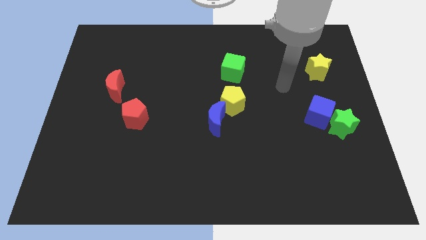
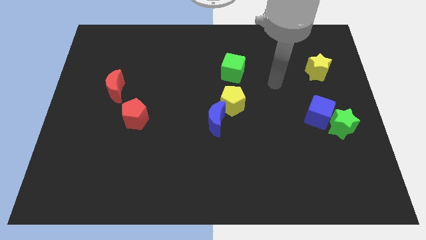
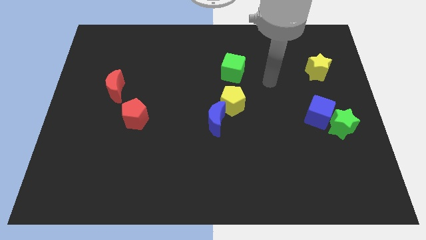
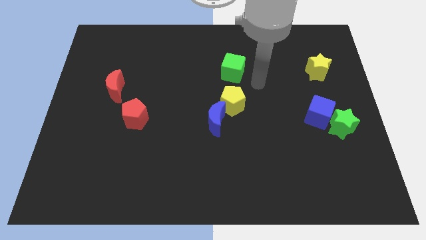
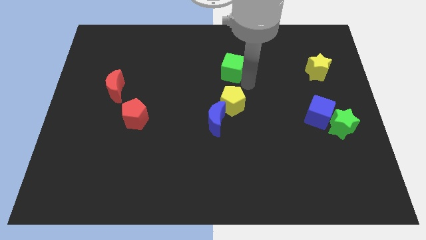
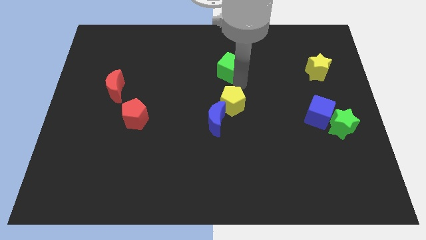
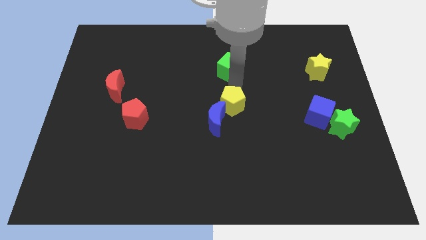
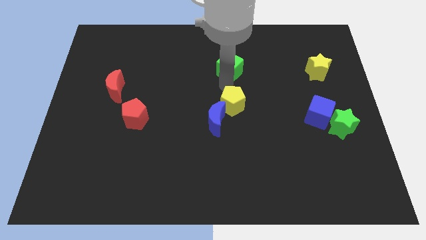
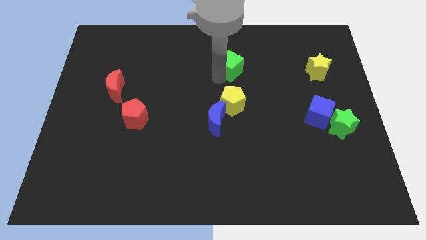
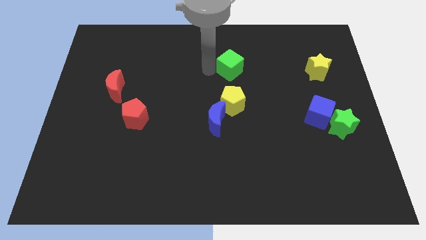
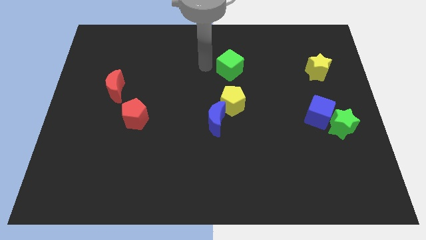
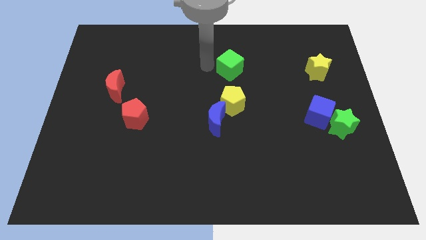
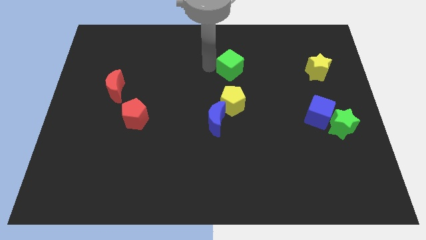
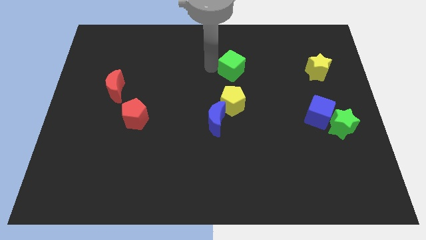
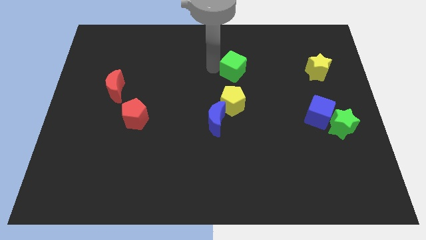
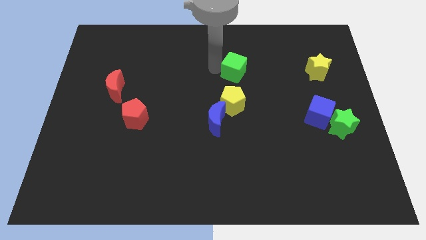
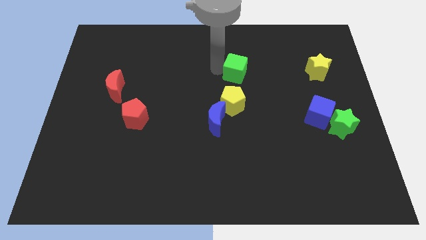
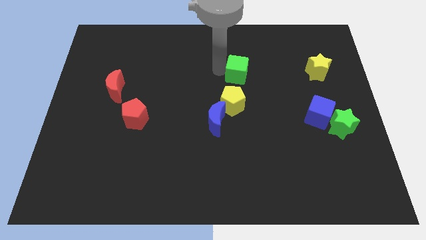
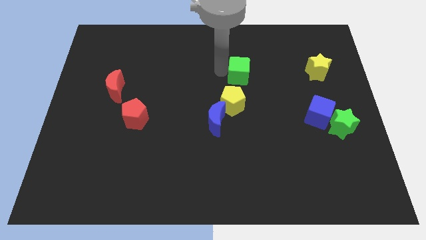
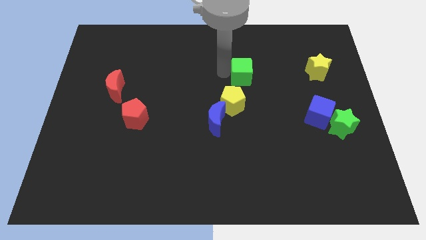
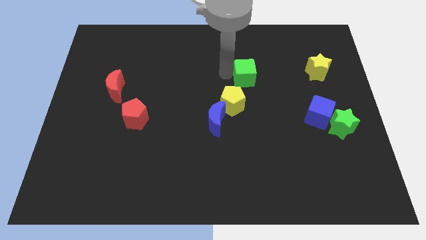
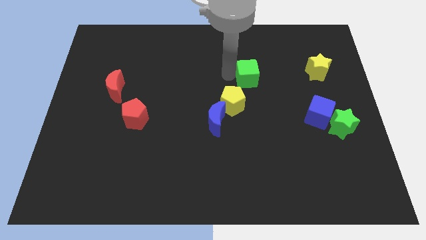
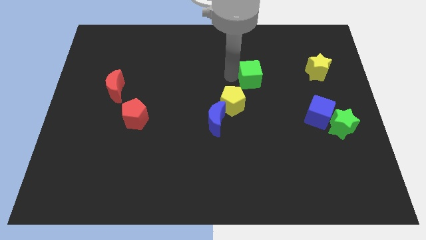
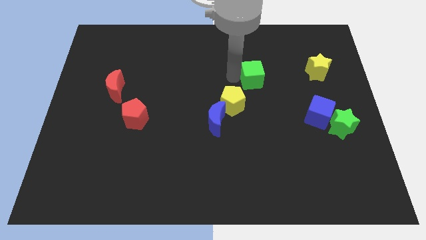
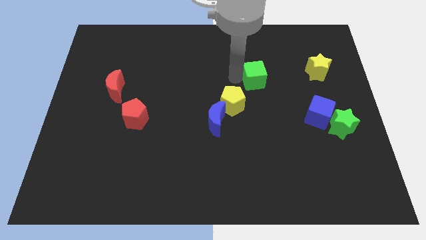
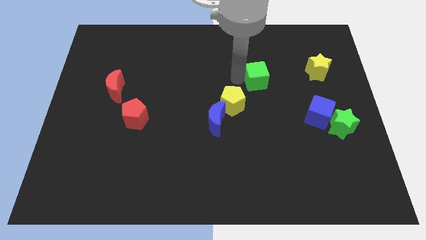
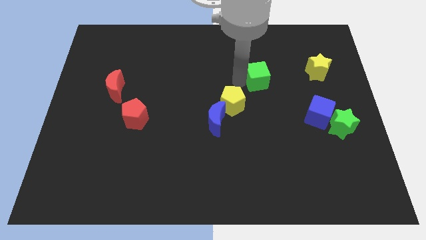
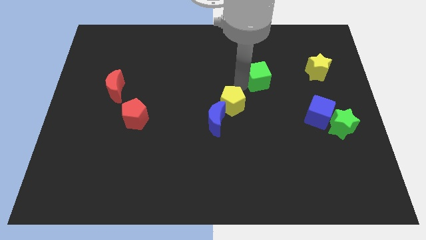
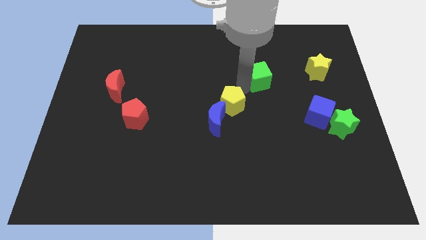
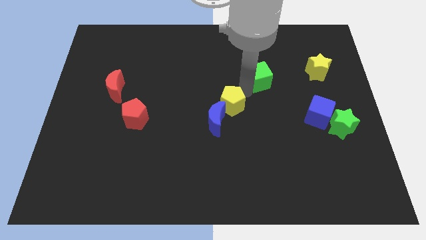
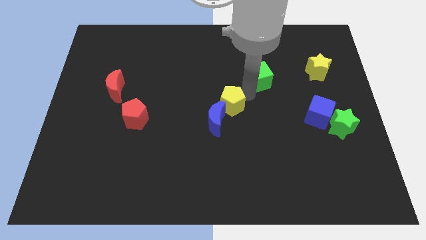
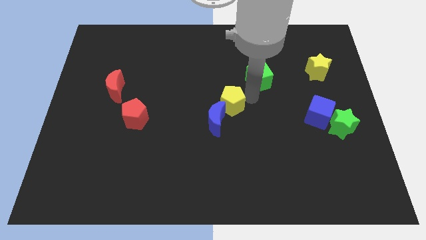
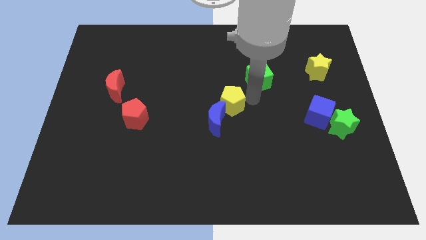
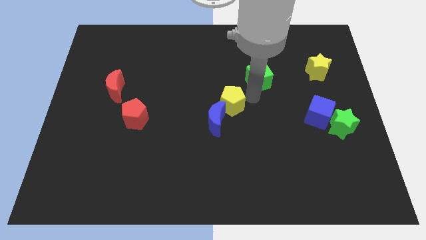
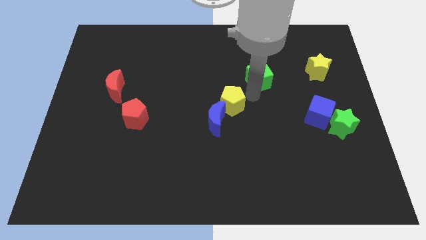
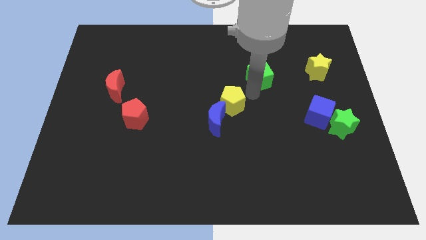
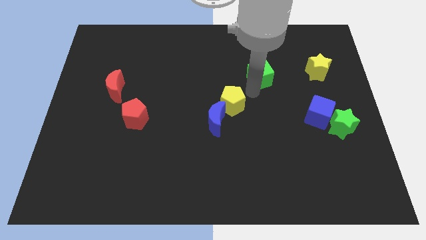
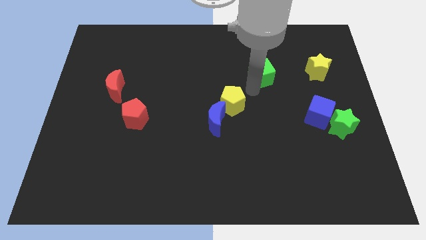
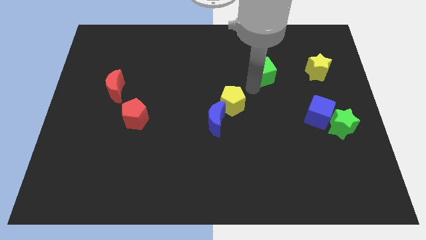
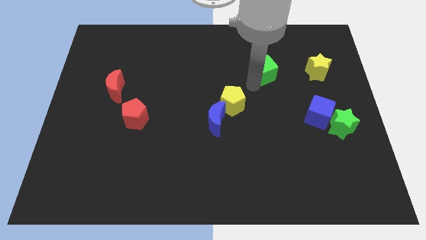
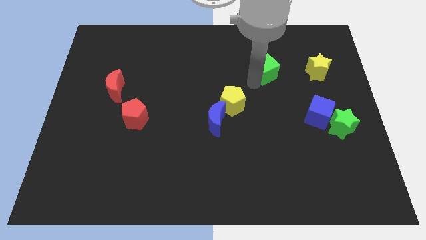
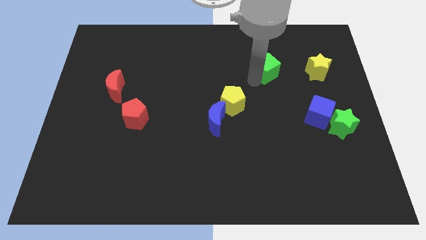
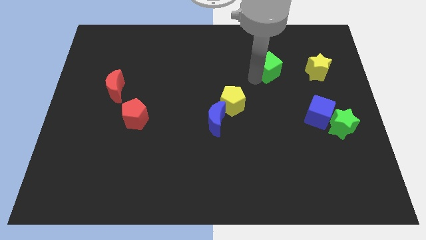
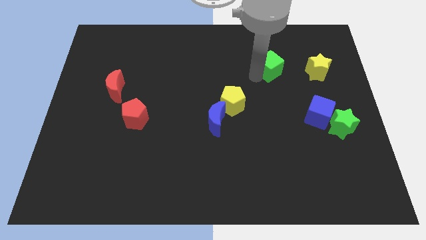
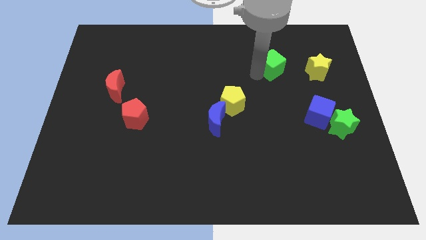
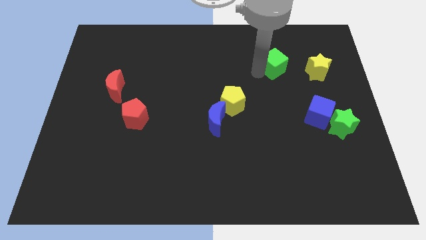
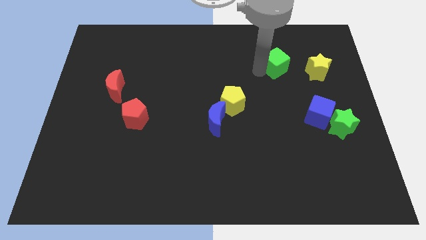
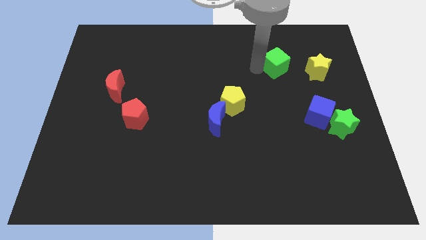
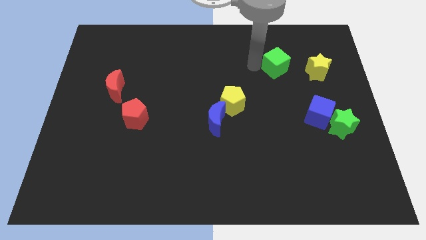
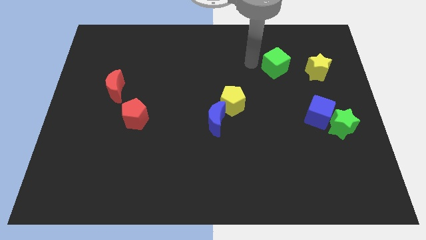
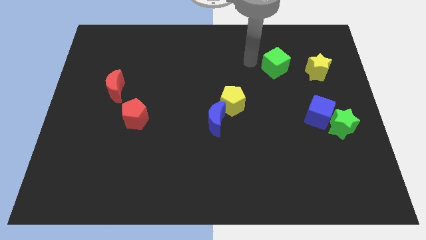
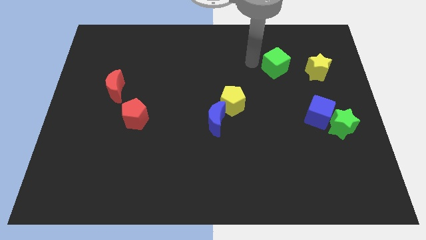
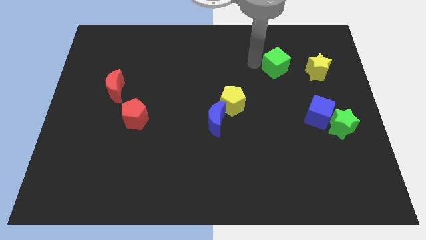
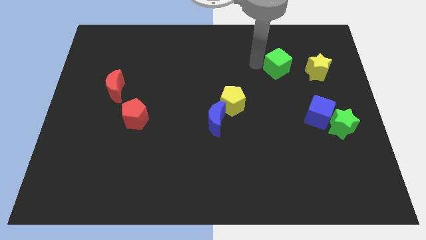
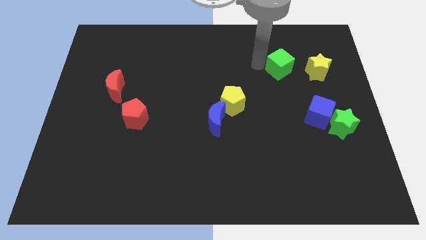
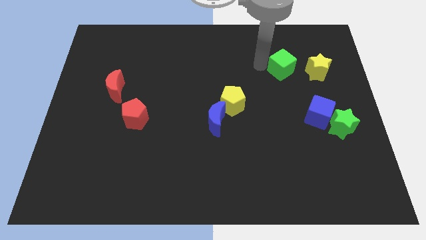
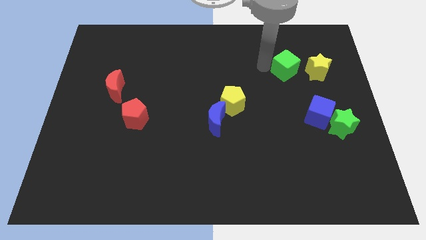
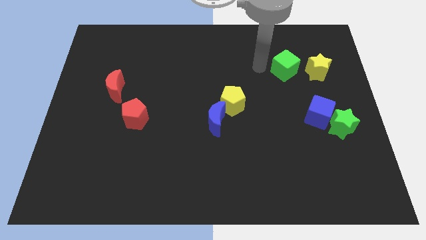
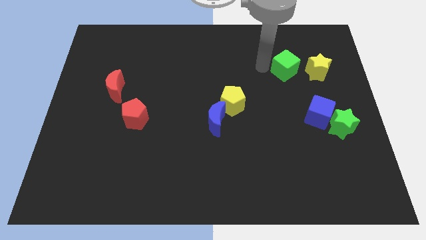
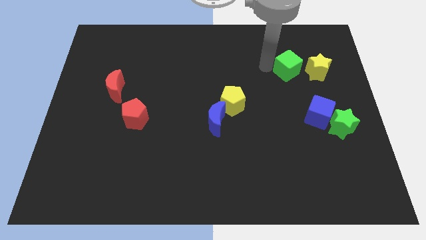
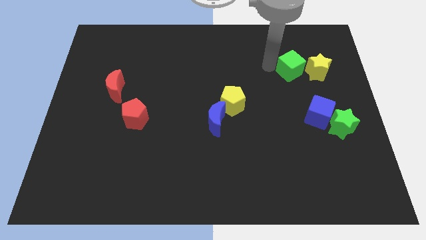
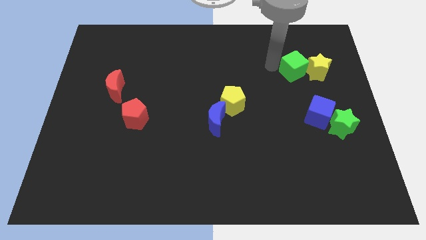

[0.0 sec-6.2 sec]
push the green cube close to the yellow star

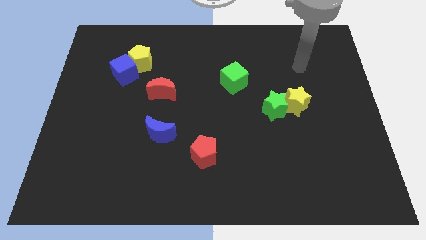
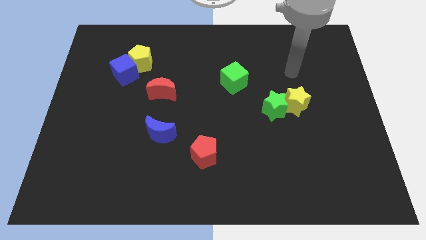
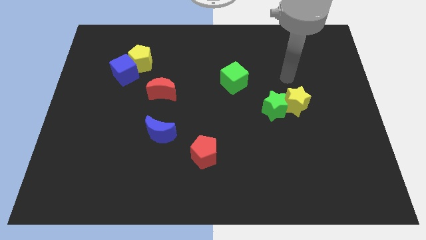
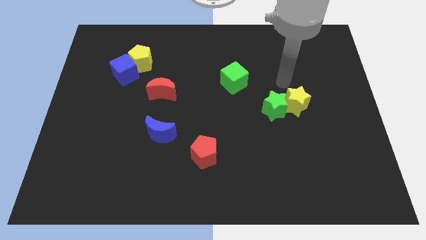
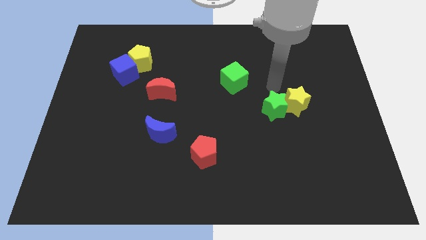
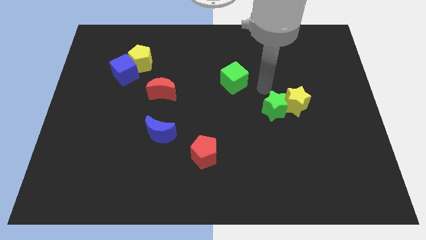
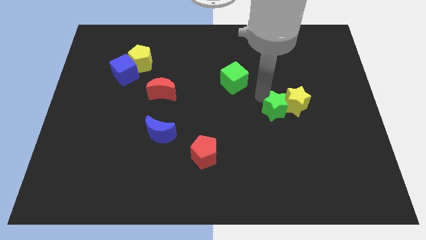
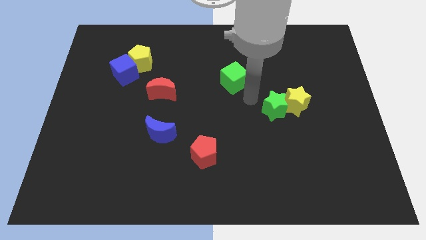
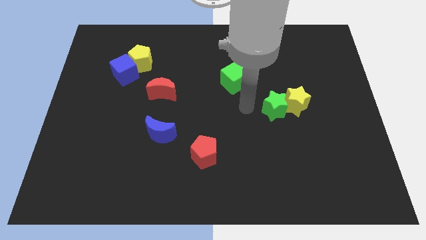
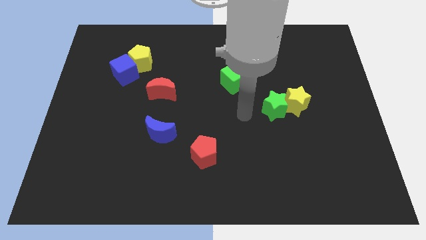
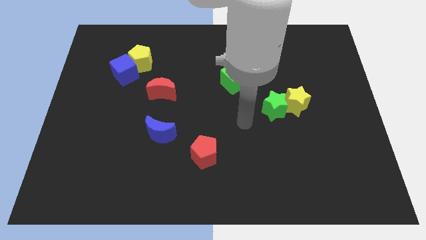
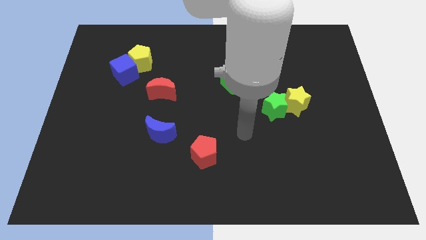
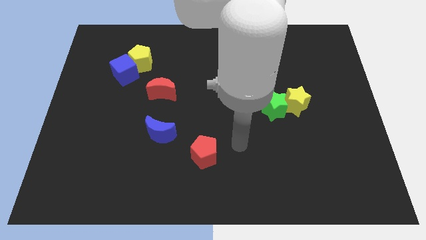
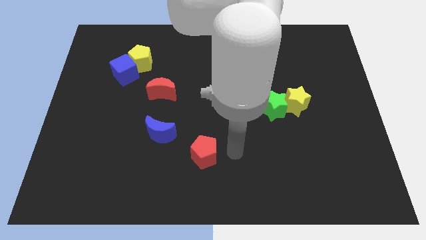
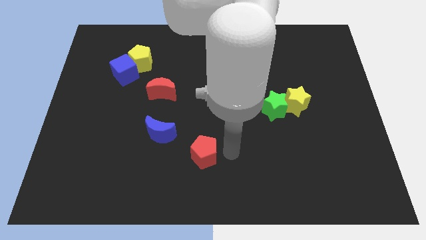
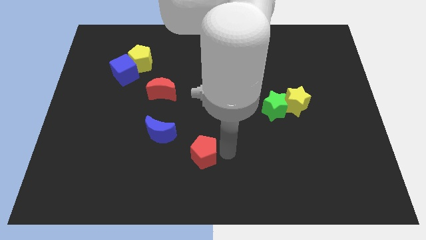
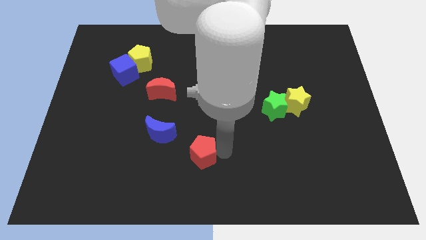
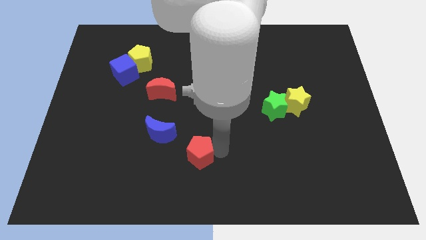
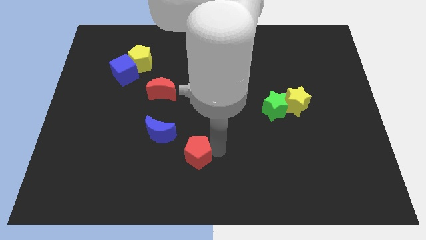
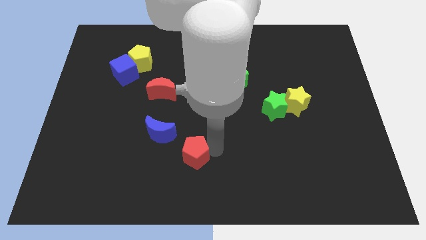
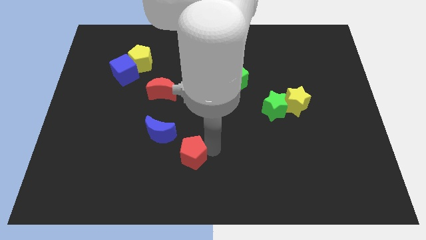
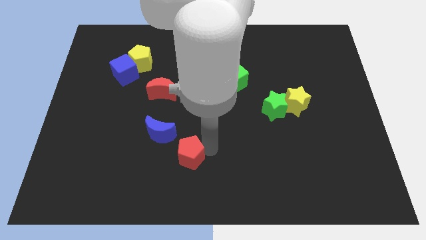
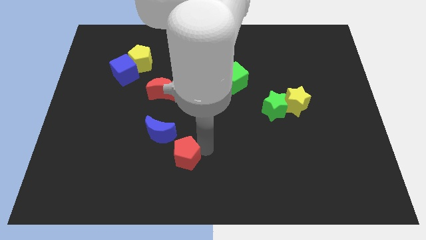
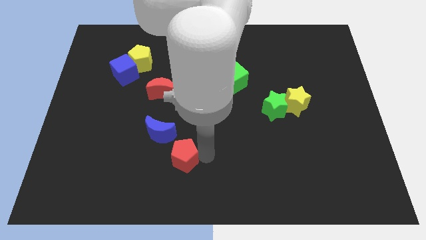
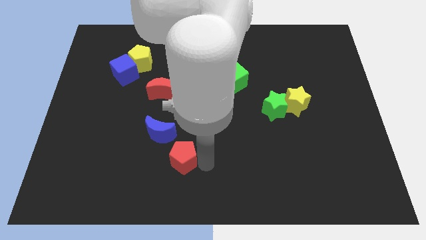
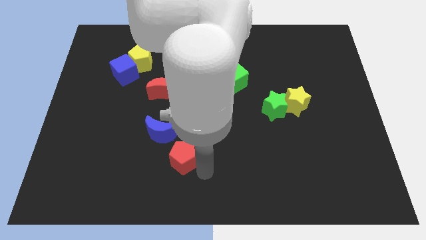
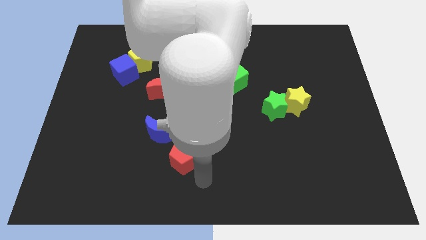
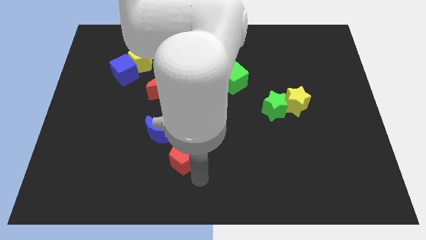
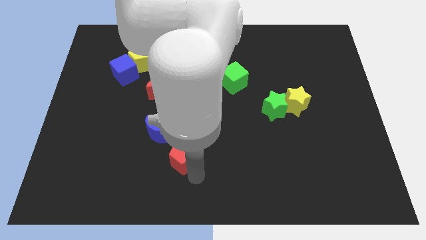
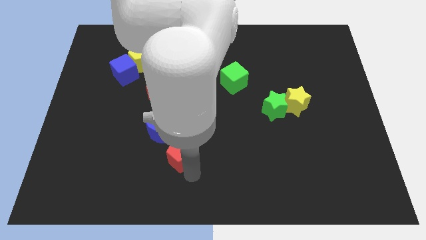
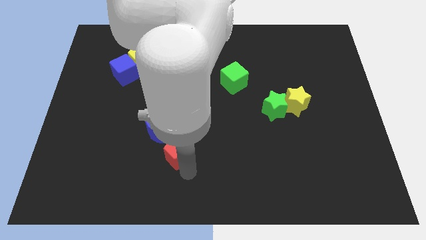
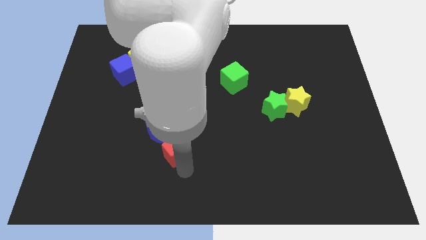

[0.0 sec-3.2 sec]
slide the red pentagon towards the blue moon
